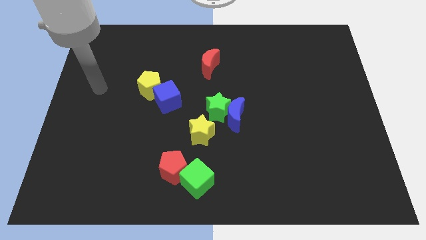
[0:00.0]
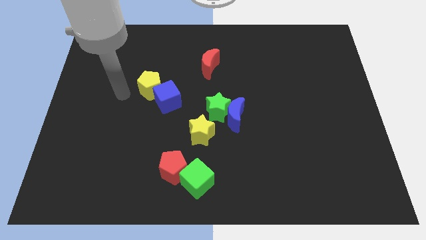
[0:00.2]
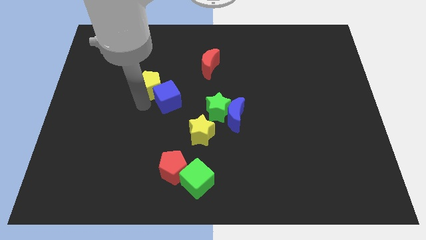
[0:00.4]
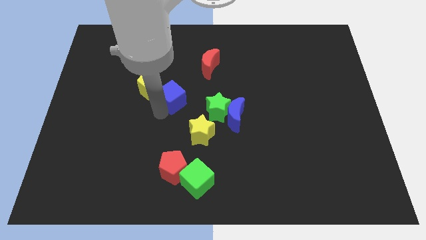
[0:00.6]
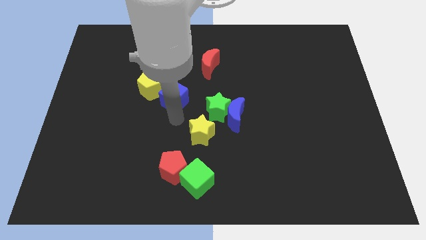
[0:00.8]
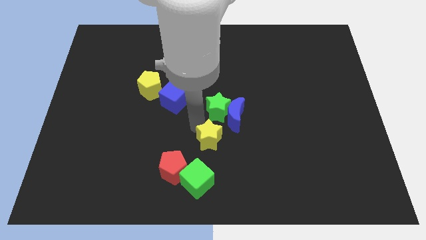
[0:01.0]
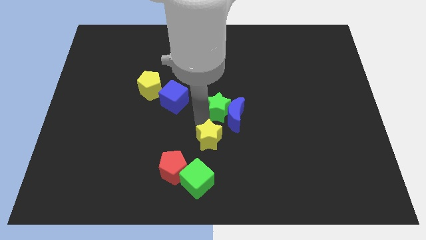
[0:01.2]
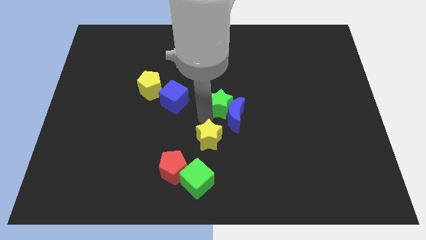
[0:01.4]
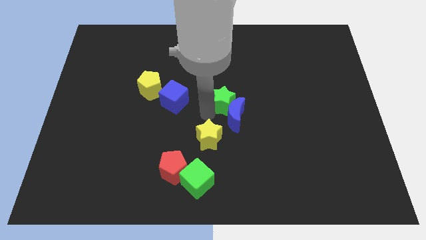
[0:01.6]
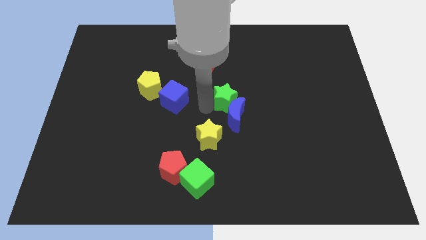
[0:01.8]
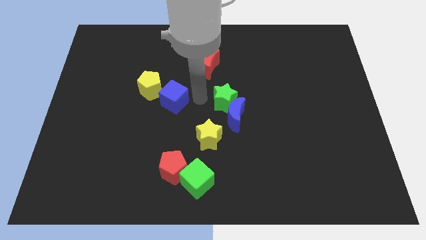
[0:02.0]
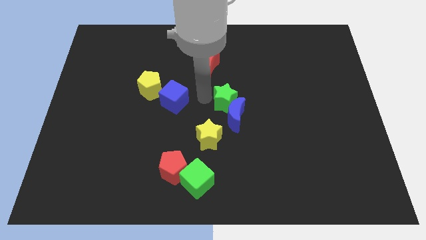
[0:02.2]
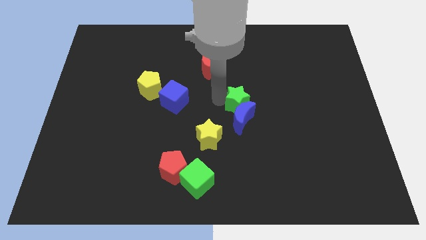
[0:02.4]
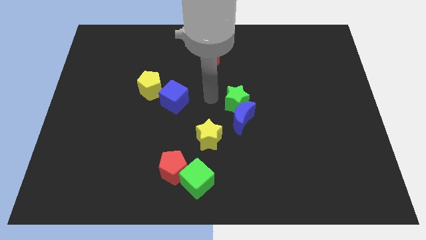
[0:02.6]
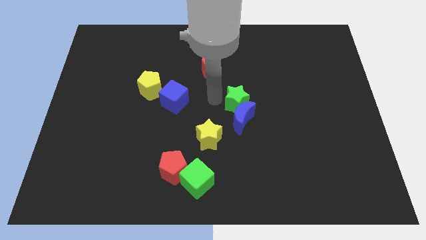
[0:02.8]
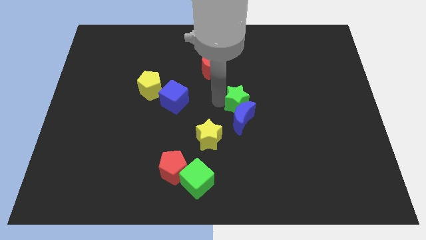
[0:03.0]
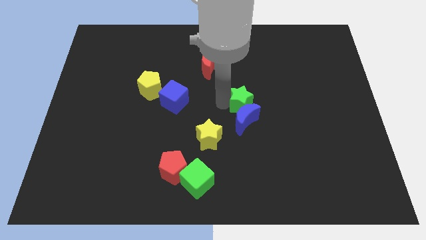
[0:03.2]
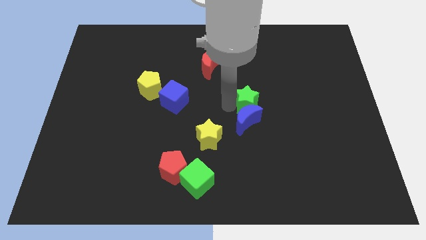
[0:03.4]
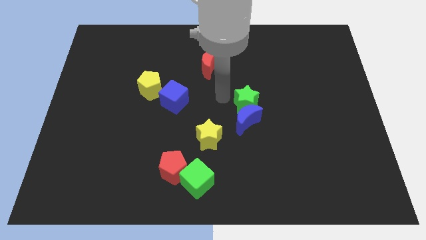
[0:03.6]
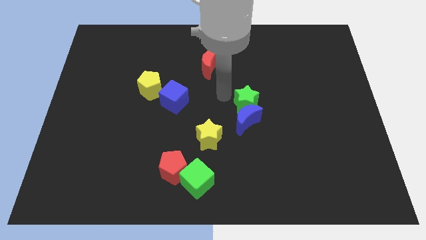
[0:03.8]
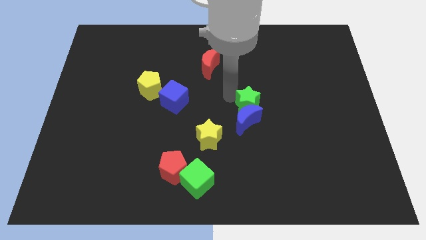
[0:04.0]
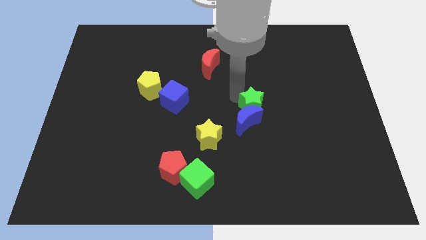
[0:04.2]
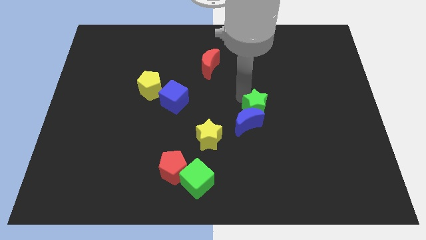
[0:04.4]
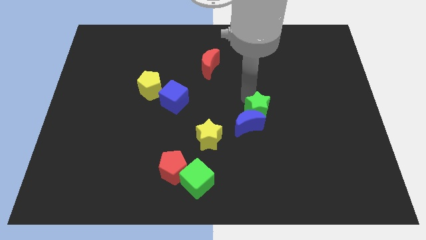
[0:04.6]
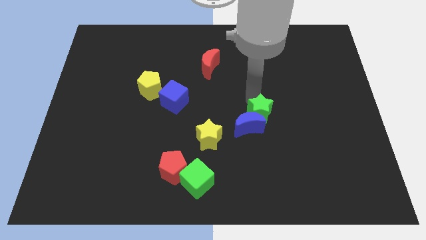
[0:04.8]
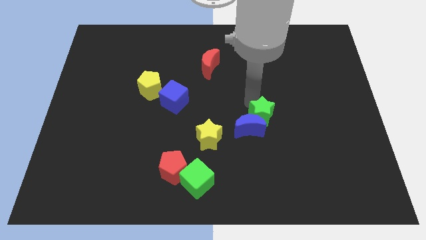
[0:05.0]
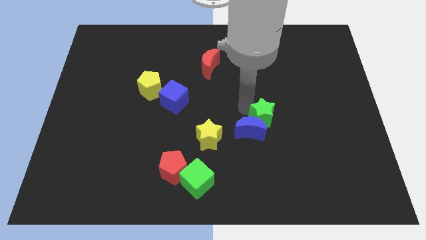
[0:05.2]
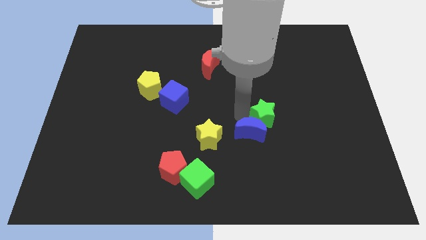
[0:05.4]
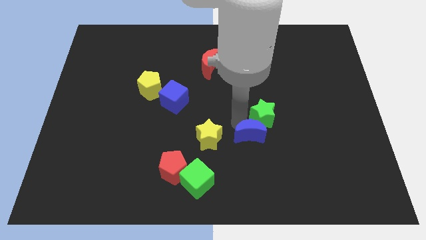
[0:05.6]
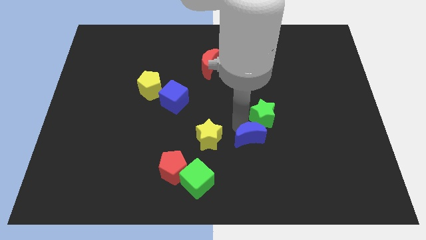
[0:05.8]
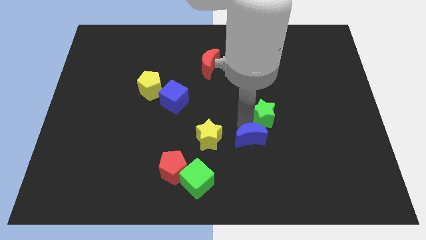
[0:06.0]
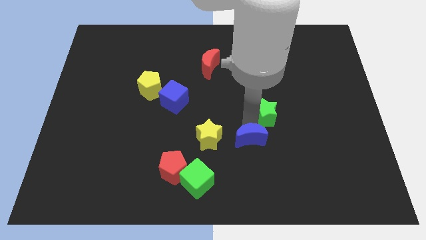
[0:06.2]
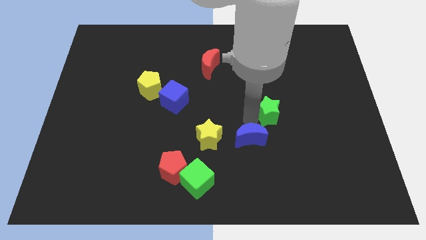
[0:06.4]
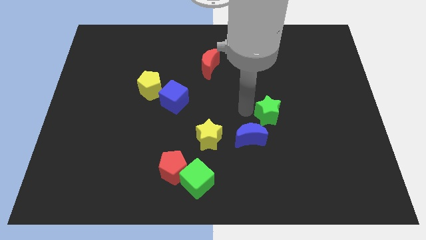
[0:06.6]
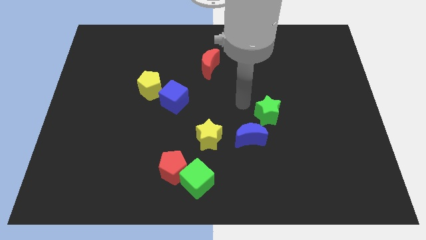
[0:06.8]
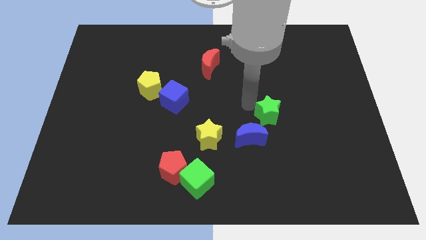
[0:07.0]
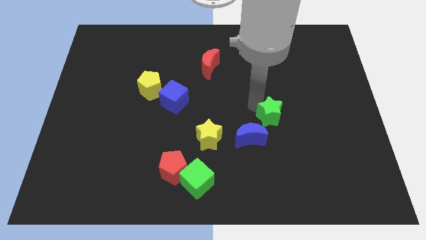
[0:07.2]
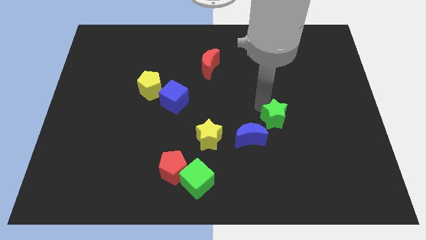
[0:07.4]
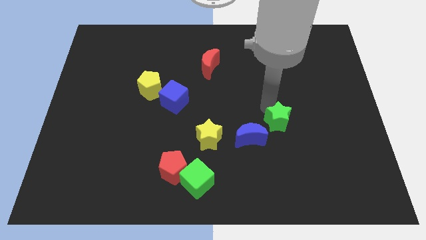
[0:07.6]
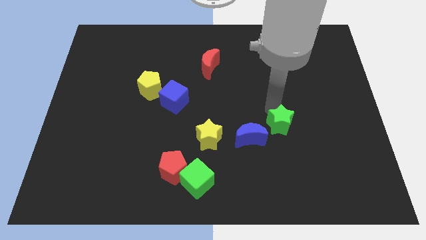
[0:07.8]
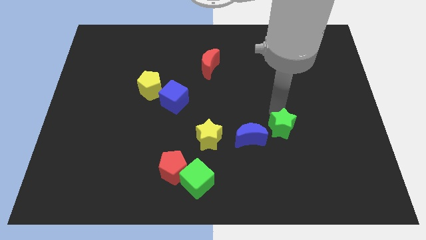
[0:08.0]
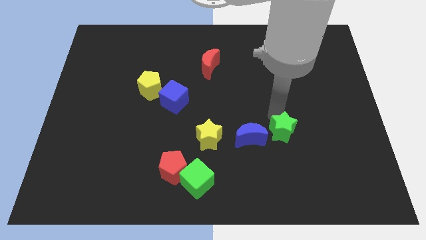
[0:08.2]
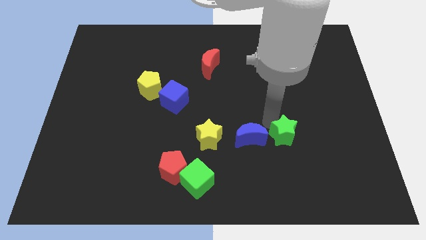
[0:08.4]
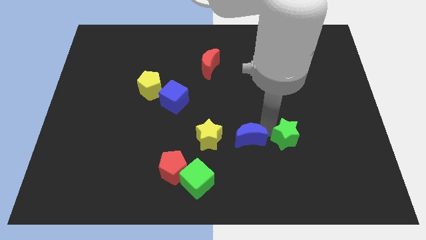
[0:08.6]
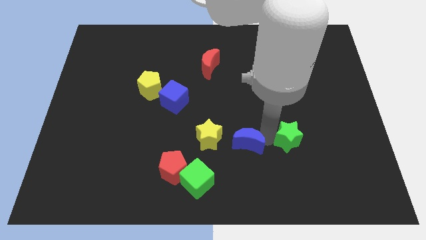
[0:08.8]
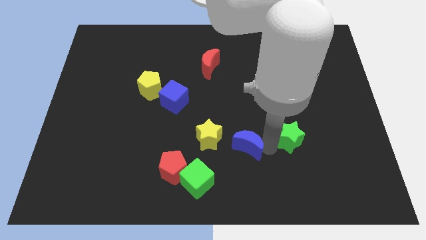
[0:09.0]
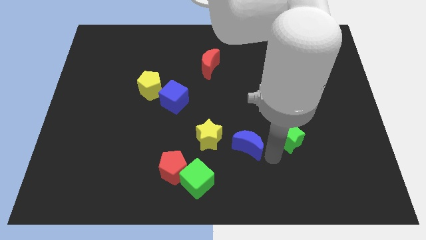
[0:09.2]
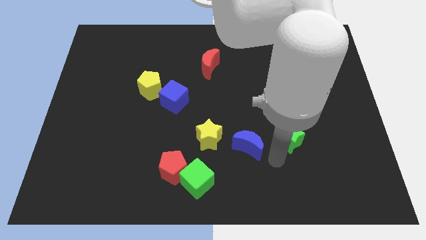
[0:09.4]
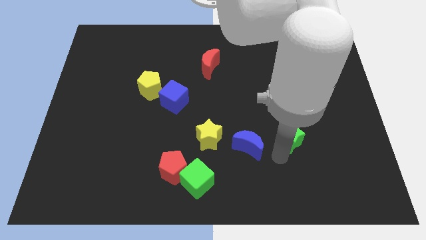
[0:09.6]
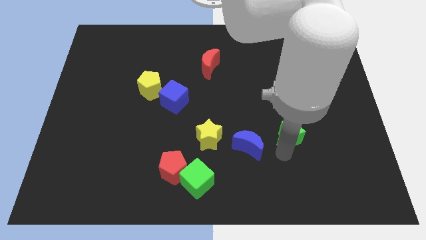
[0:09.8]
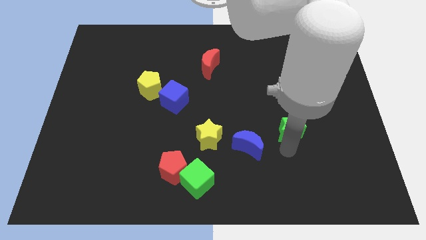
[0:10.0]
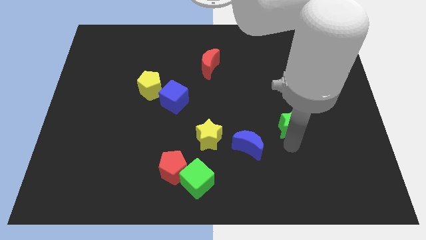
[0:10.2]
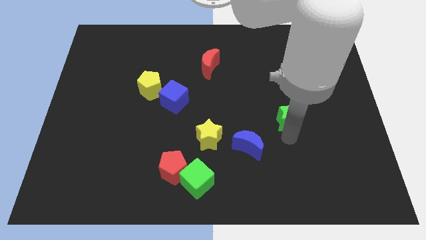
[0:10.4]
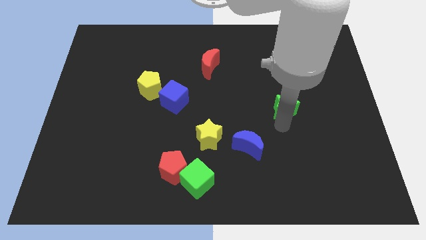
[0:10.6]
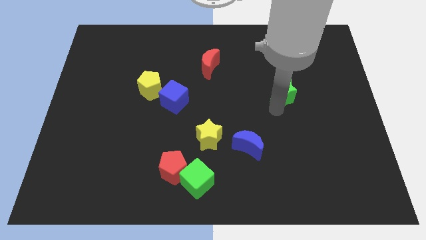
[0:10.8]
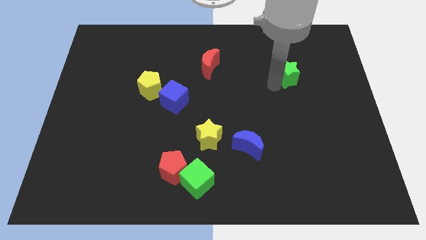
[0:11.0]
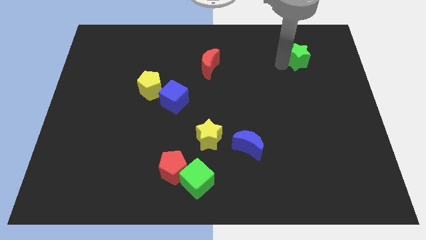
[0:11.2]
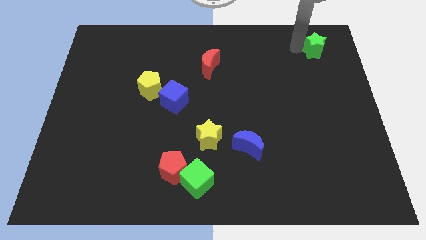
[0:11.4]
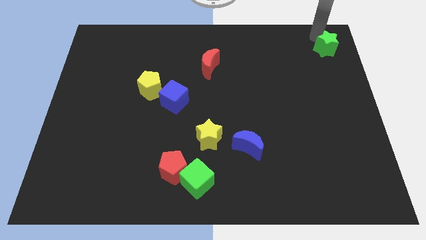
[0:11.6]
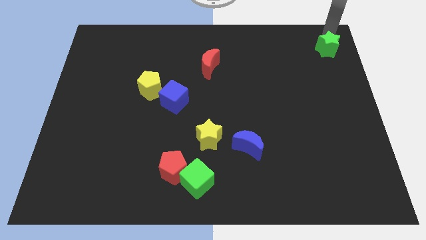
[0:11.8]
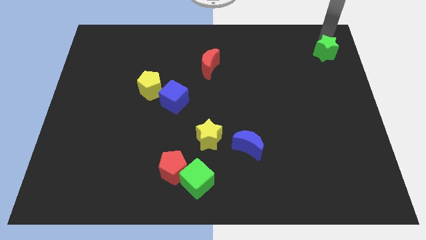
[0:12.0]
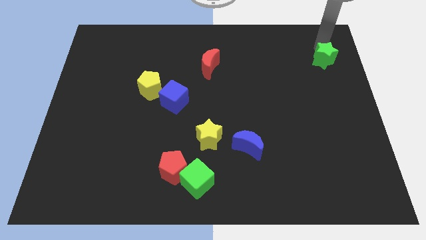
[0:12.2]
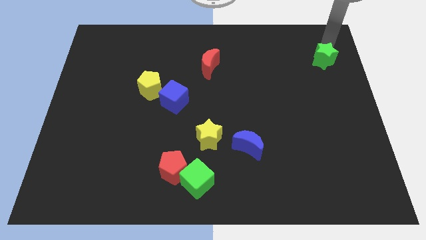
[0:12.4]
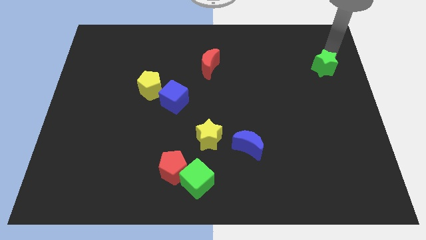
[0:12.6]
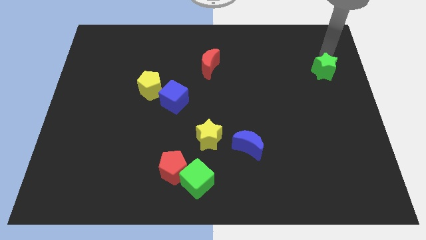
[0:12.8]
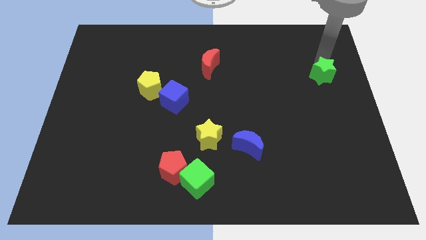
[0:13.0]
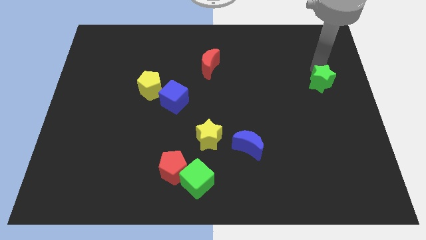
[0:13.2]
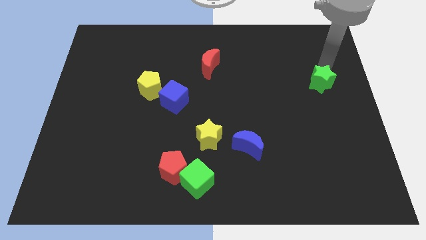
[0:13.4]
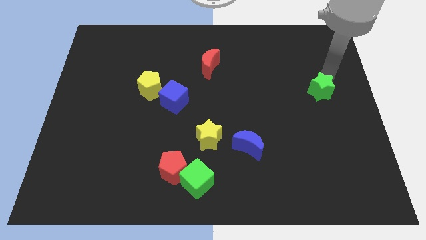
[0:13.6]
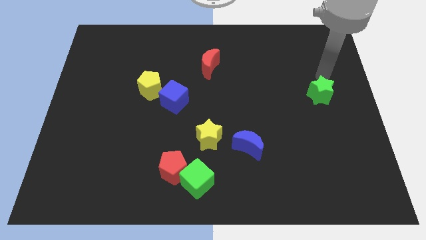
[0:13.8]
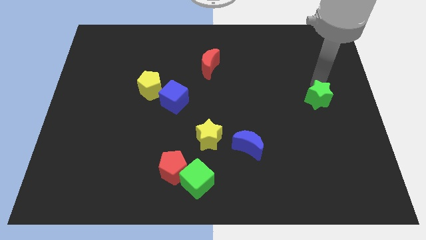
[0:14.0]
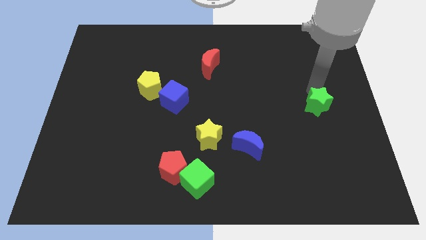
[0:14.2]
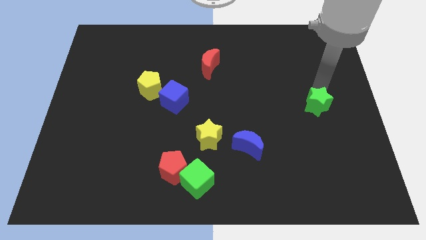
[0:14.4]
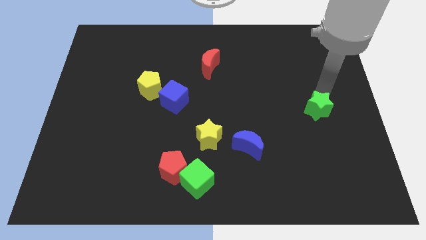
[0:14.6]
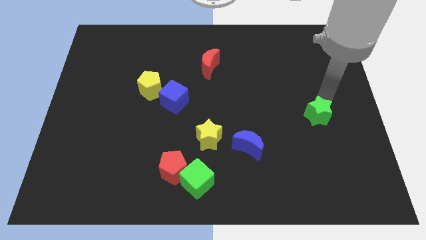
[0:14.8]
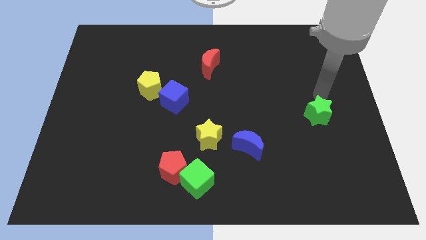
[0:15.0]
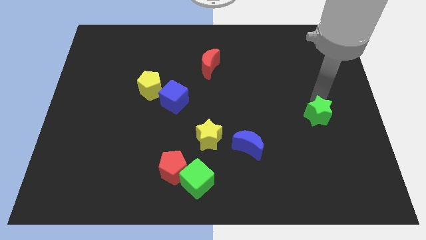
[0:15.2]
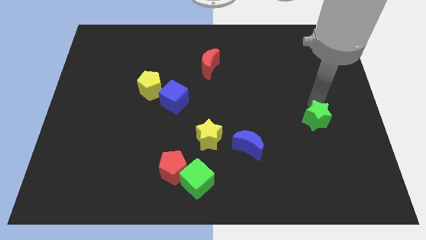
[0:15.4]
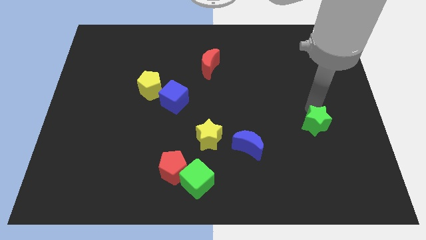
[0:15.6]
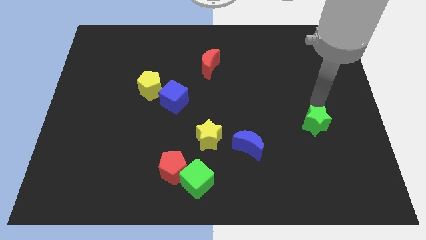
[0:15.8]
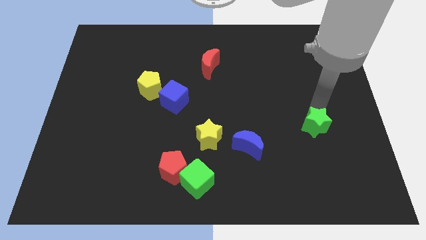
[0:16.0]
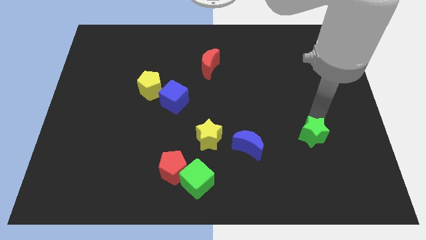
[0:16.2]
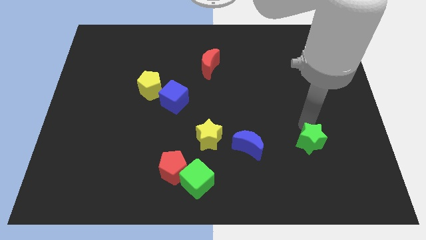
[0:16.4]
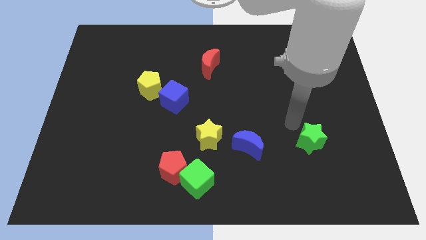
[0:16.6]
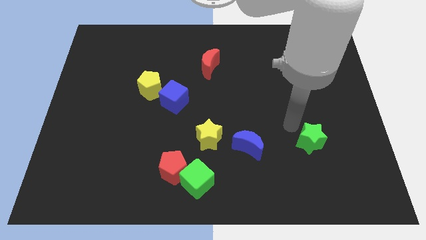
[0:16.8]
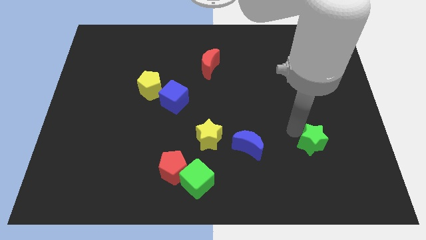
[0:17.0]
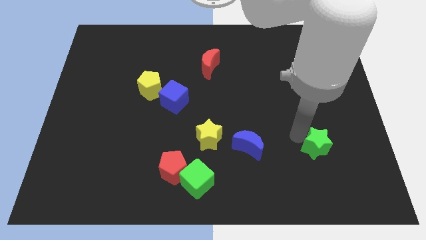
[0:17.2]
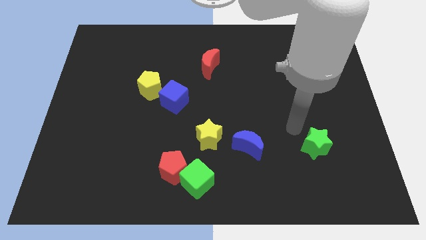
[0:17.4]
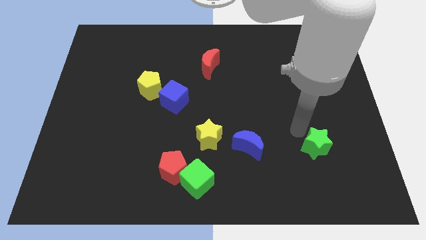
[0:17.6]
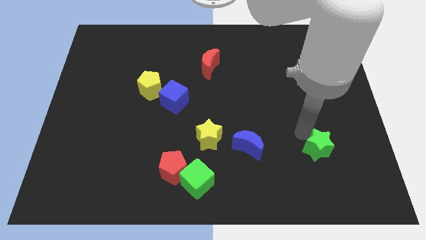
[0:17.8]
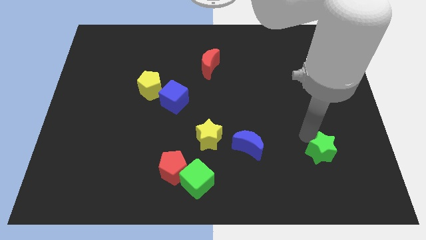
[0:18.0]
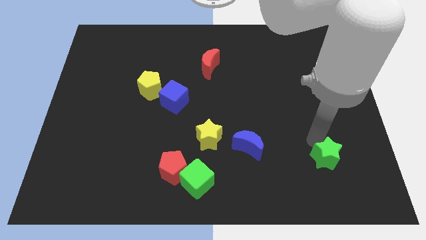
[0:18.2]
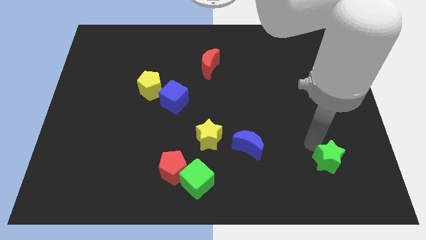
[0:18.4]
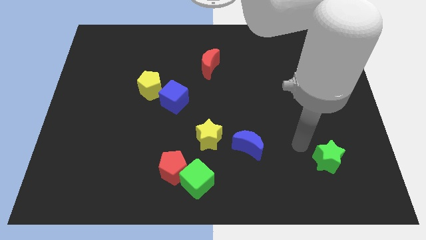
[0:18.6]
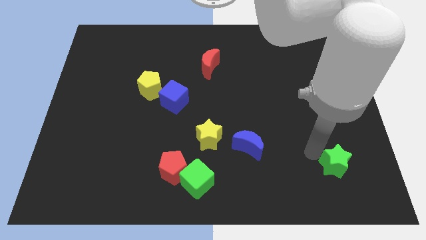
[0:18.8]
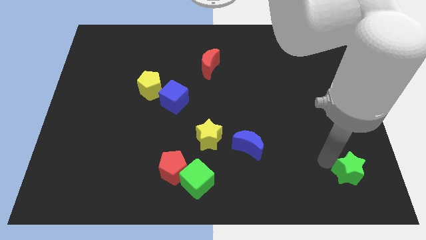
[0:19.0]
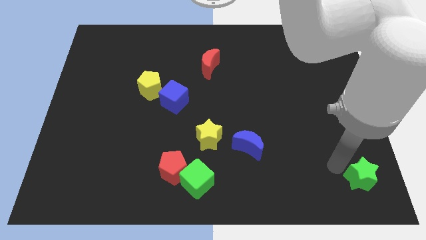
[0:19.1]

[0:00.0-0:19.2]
put the green star to the bottom right
